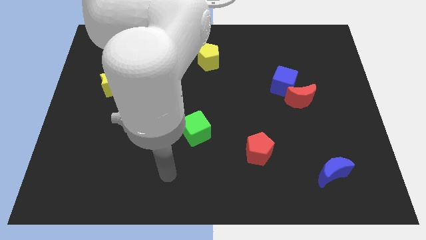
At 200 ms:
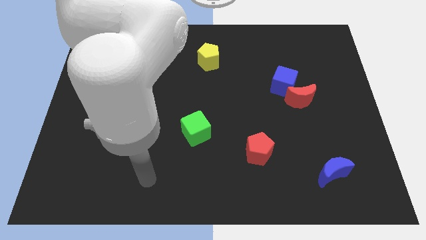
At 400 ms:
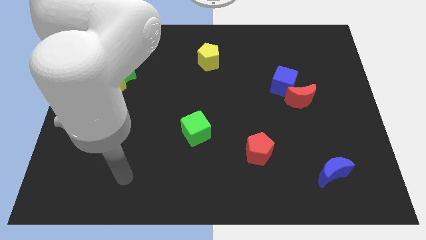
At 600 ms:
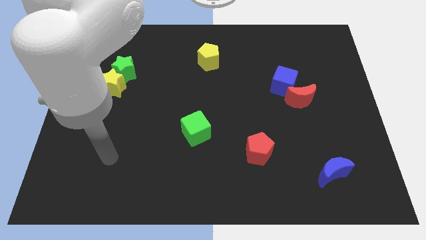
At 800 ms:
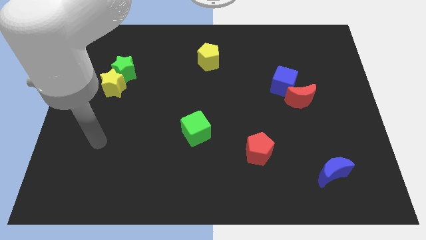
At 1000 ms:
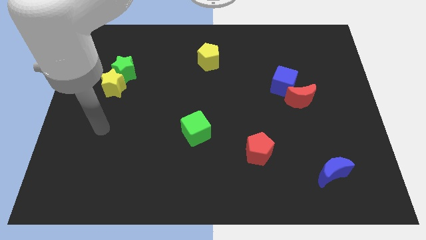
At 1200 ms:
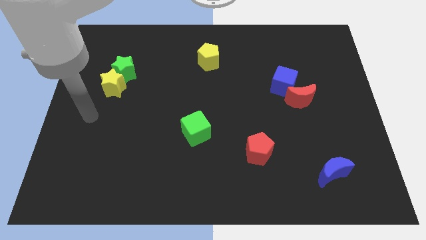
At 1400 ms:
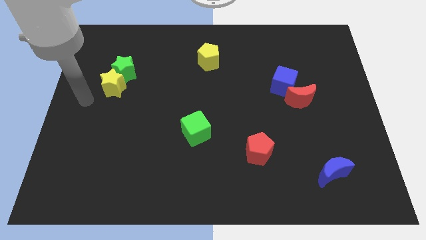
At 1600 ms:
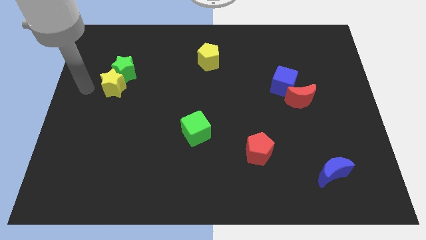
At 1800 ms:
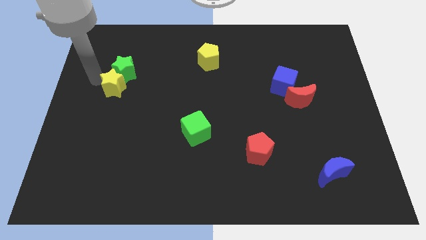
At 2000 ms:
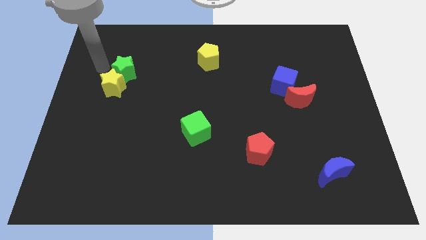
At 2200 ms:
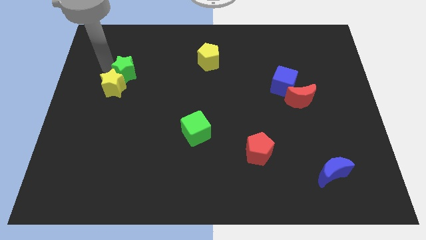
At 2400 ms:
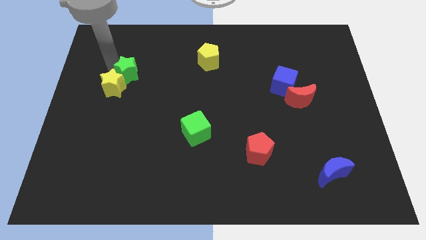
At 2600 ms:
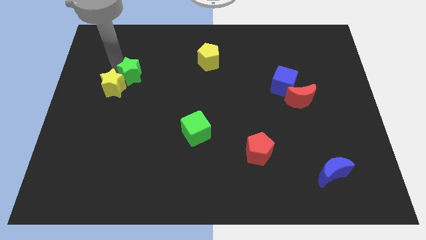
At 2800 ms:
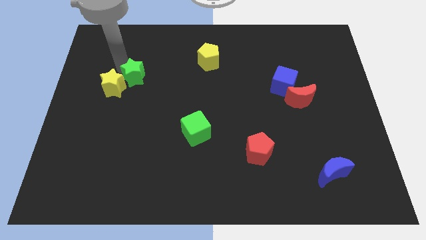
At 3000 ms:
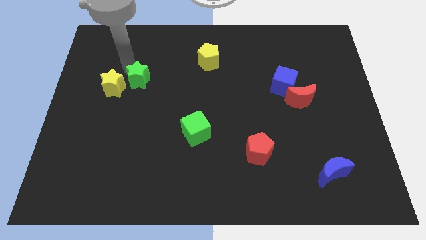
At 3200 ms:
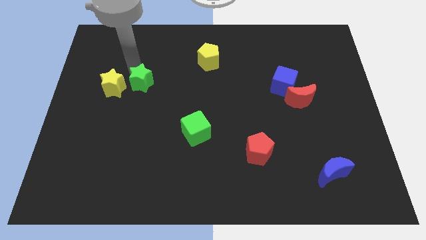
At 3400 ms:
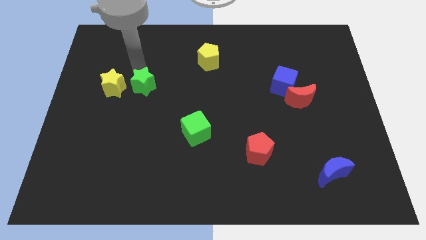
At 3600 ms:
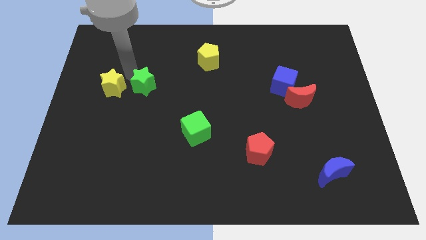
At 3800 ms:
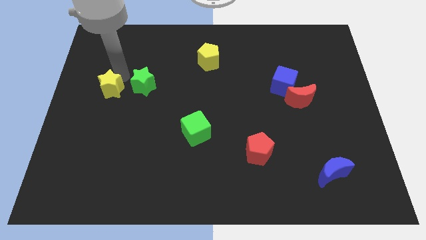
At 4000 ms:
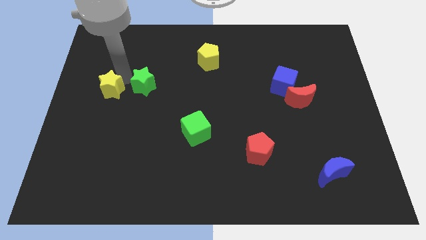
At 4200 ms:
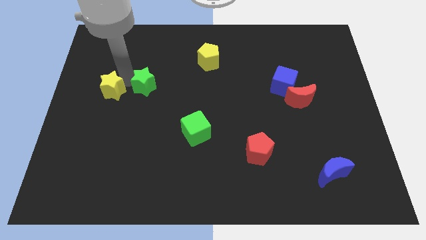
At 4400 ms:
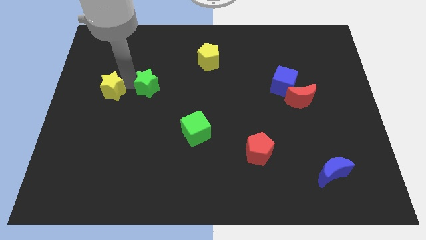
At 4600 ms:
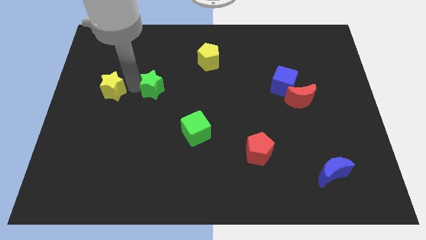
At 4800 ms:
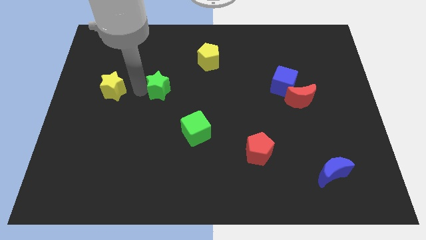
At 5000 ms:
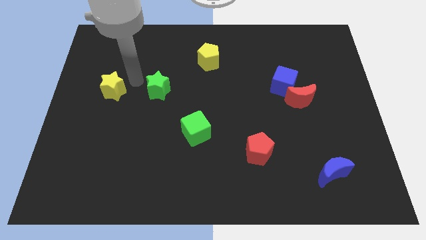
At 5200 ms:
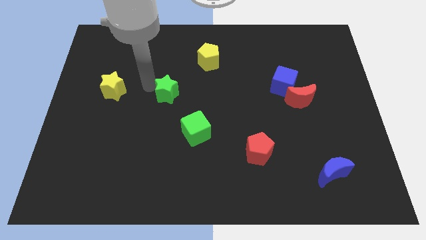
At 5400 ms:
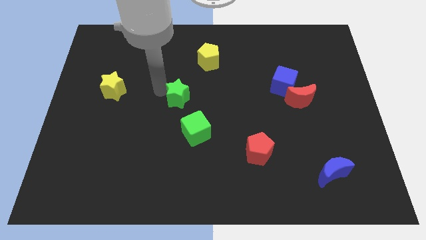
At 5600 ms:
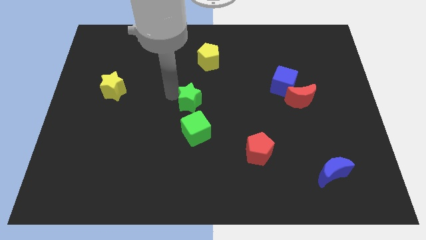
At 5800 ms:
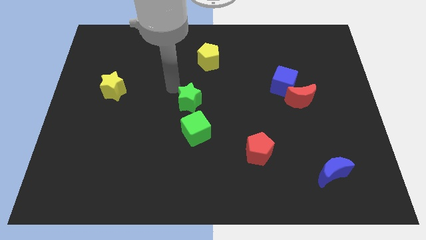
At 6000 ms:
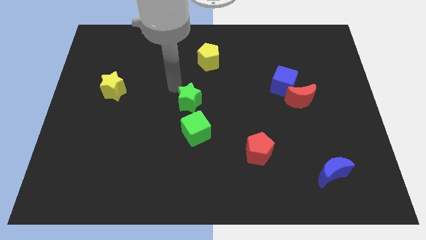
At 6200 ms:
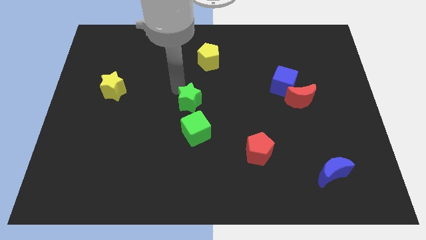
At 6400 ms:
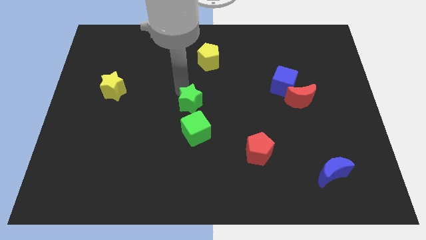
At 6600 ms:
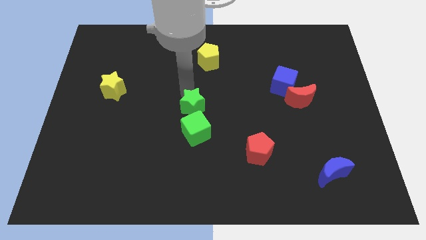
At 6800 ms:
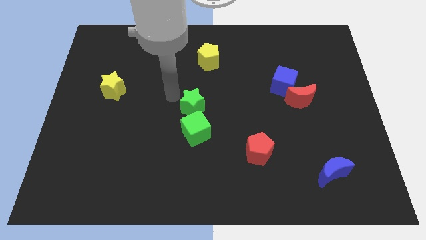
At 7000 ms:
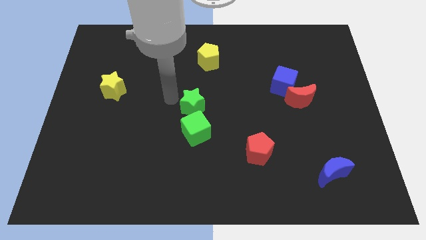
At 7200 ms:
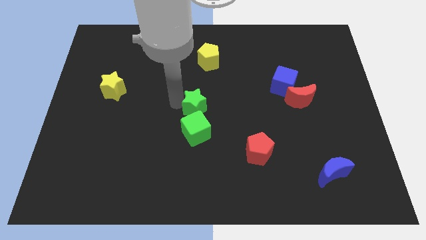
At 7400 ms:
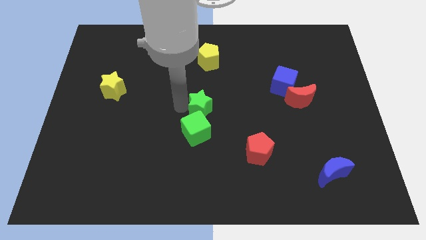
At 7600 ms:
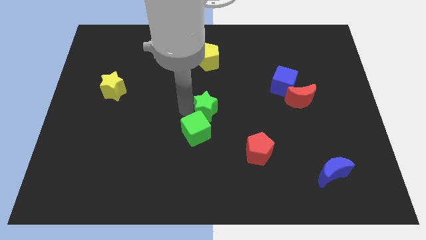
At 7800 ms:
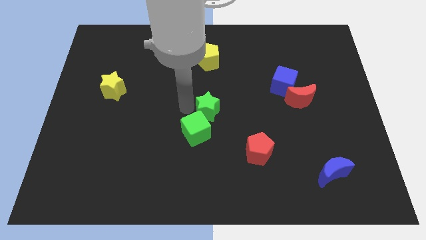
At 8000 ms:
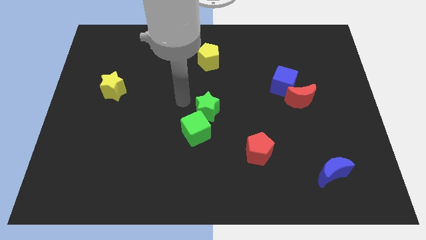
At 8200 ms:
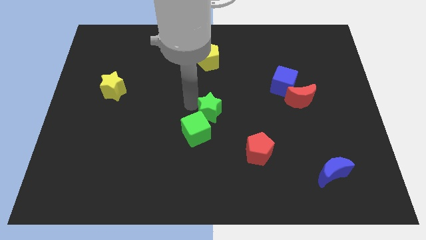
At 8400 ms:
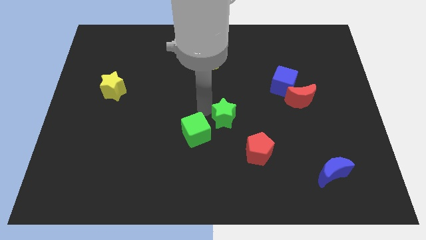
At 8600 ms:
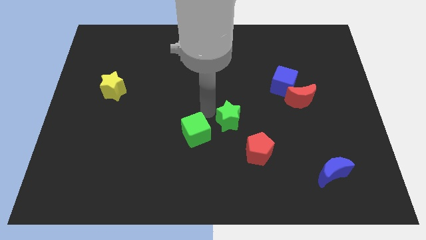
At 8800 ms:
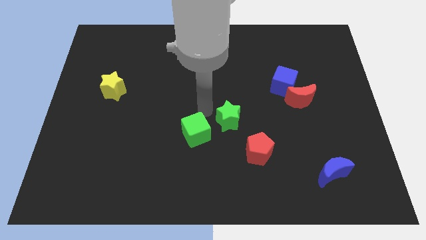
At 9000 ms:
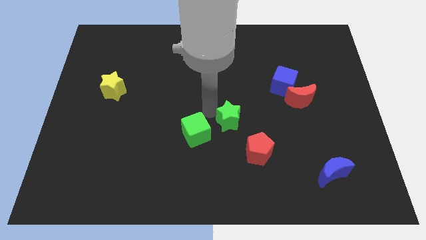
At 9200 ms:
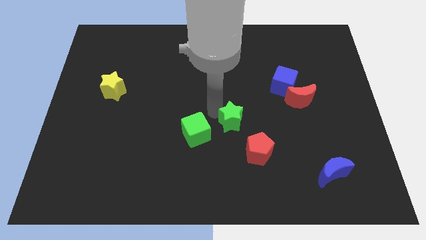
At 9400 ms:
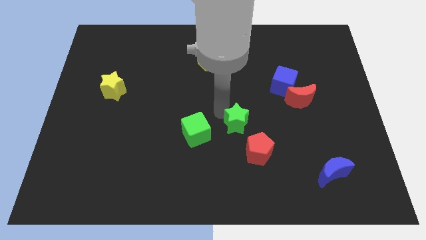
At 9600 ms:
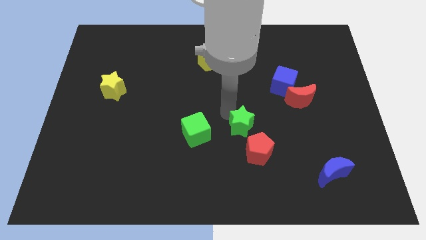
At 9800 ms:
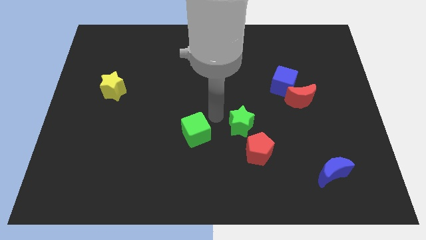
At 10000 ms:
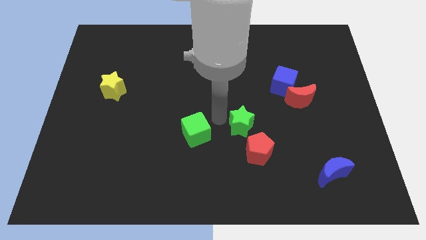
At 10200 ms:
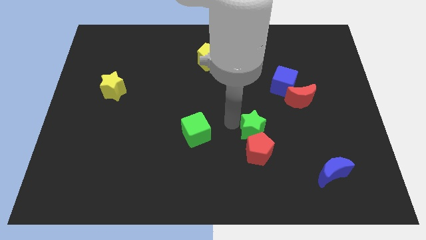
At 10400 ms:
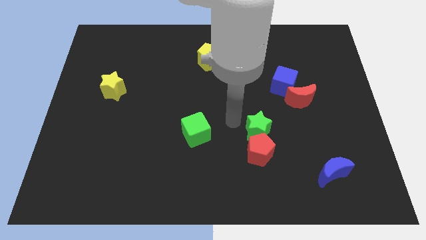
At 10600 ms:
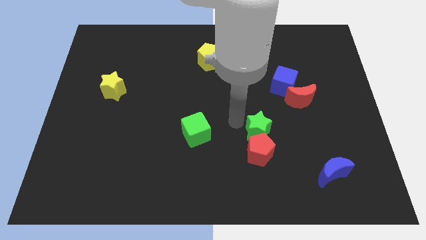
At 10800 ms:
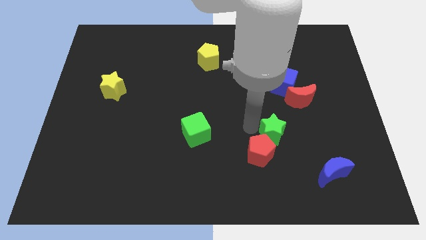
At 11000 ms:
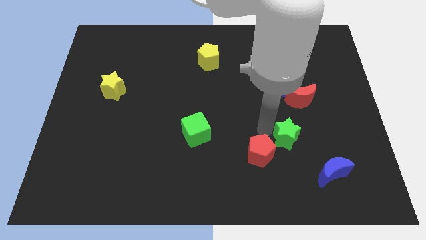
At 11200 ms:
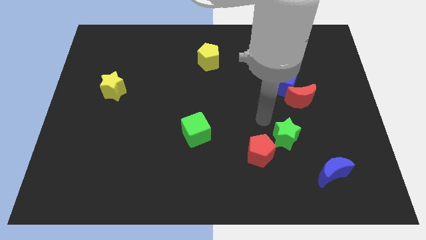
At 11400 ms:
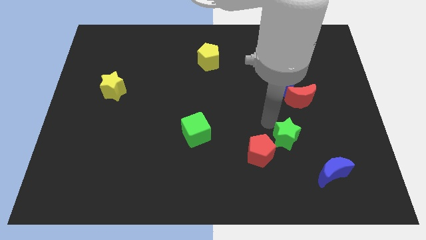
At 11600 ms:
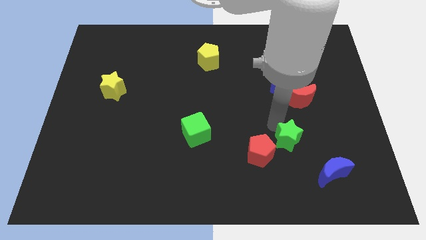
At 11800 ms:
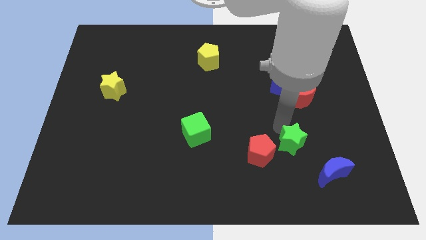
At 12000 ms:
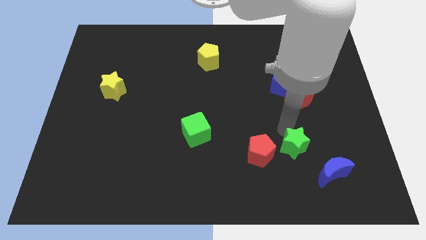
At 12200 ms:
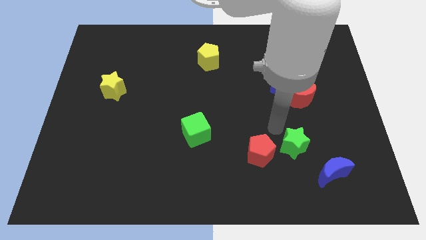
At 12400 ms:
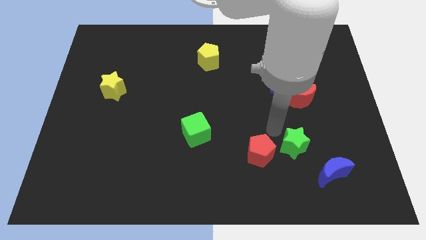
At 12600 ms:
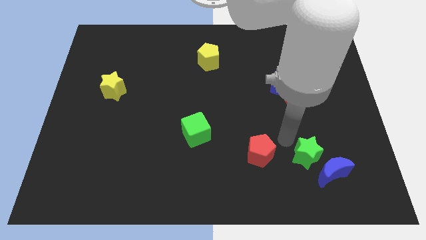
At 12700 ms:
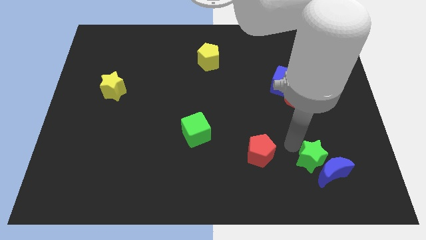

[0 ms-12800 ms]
push the green star towards the blue moon

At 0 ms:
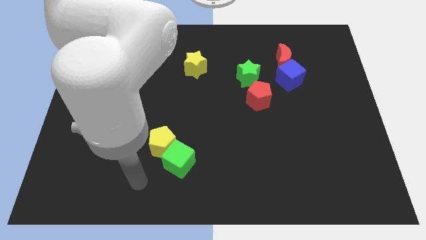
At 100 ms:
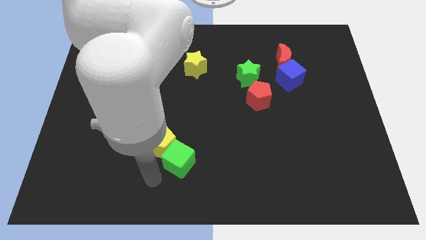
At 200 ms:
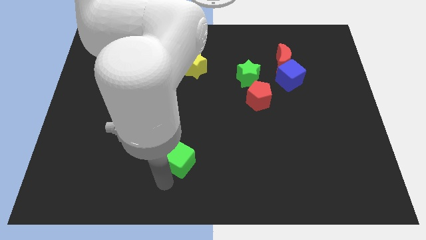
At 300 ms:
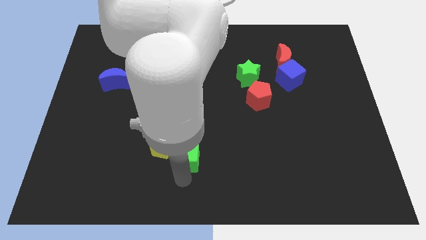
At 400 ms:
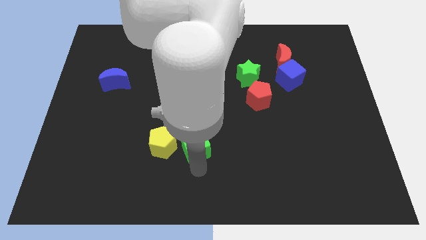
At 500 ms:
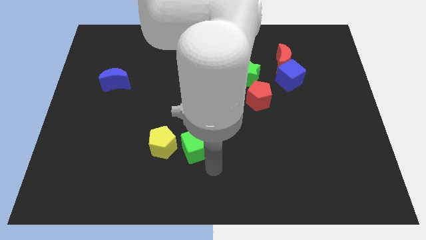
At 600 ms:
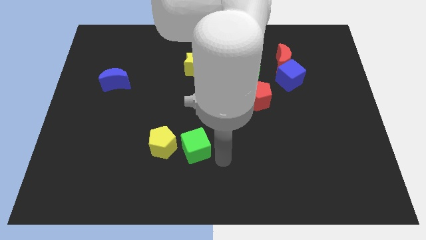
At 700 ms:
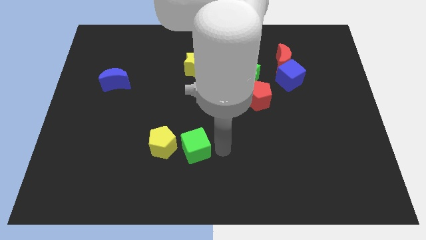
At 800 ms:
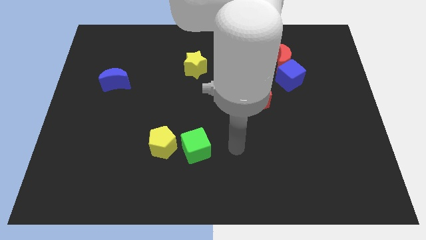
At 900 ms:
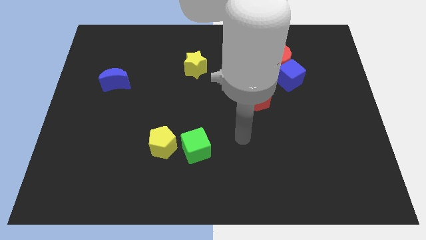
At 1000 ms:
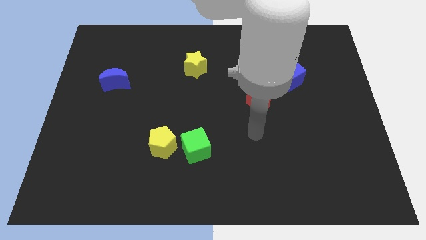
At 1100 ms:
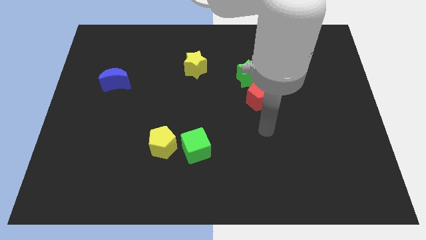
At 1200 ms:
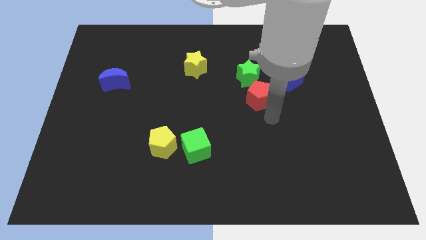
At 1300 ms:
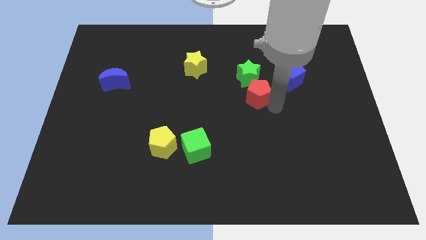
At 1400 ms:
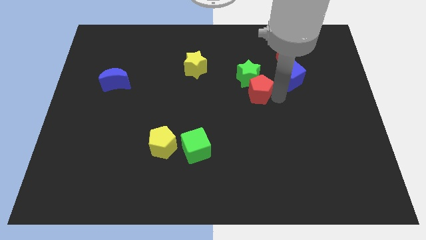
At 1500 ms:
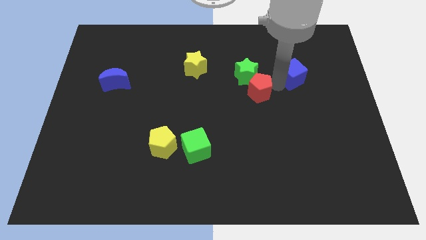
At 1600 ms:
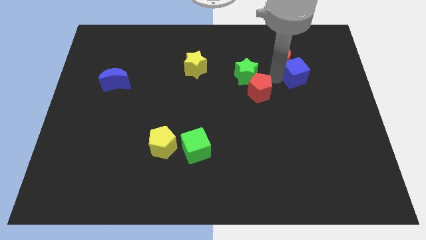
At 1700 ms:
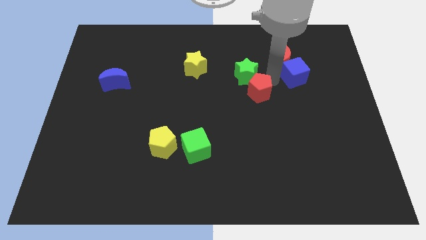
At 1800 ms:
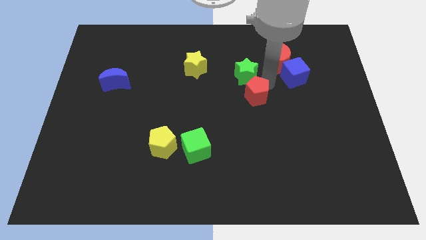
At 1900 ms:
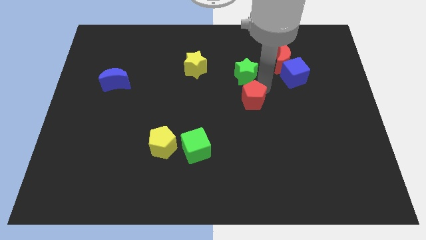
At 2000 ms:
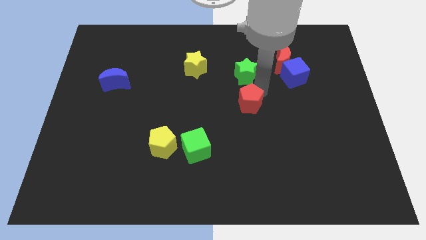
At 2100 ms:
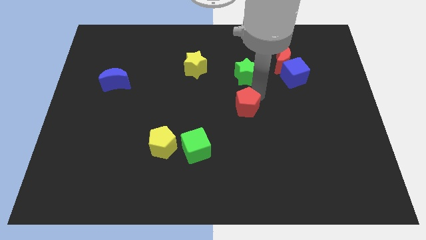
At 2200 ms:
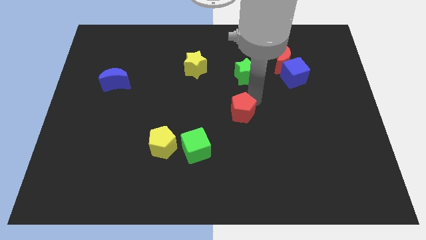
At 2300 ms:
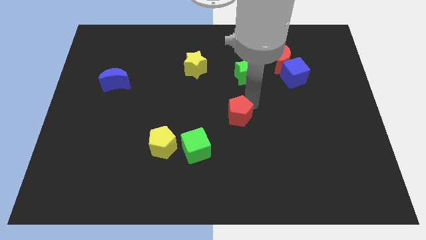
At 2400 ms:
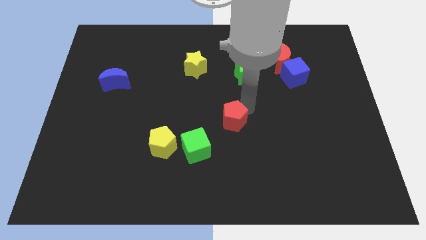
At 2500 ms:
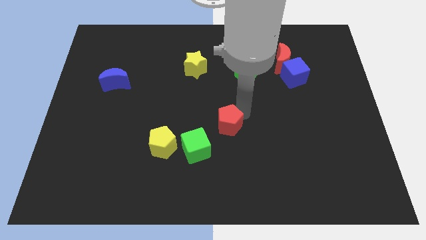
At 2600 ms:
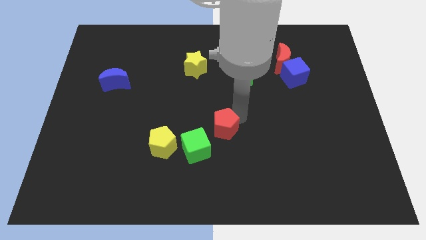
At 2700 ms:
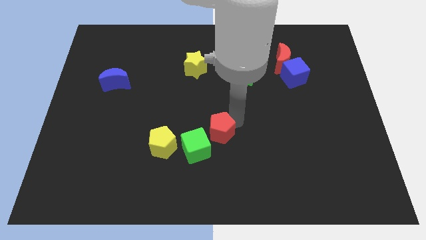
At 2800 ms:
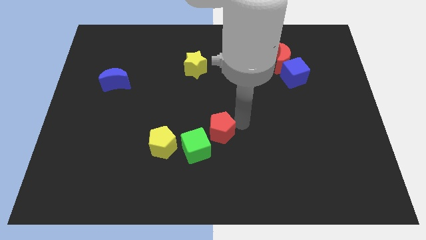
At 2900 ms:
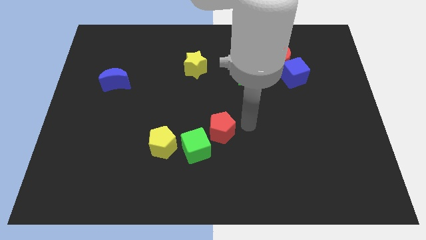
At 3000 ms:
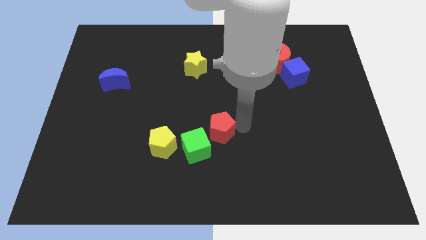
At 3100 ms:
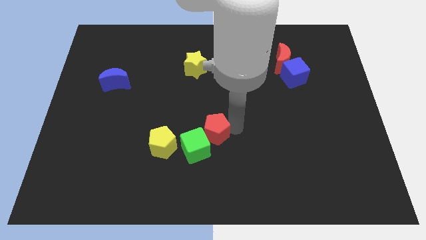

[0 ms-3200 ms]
move the red pentagon to the green cube
